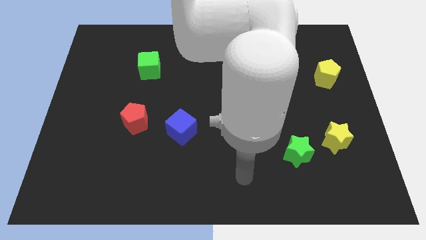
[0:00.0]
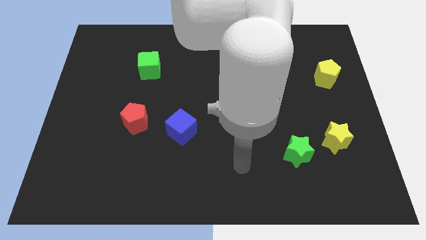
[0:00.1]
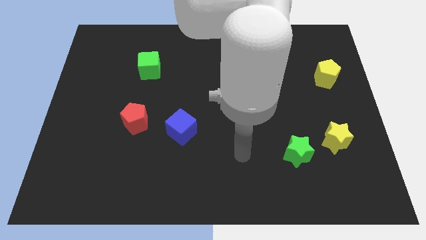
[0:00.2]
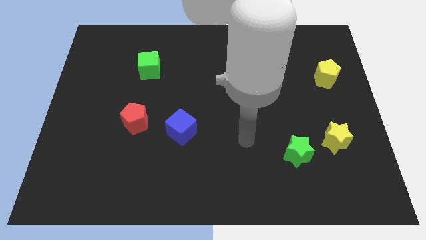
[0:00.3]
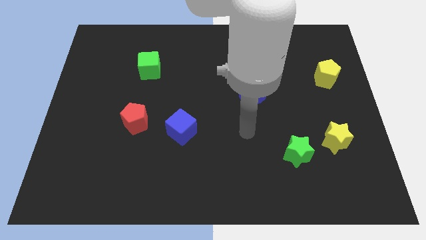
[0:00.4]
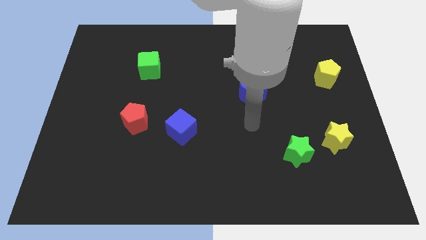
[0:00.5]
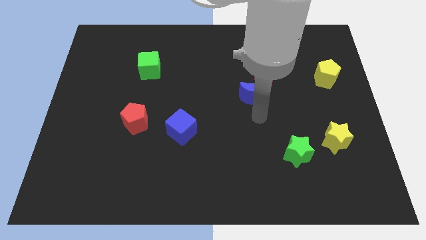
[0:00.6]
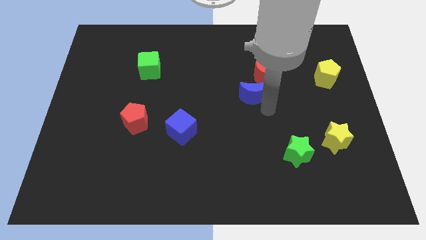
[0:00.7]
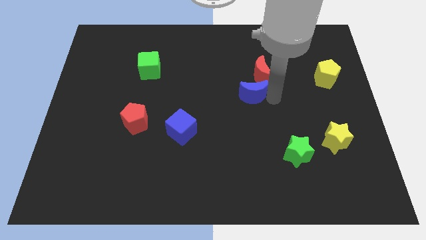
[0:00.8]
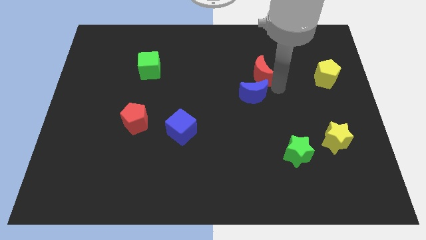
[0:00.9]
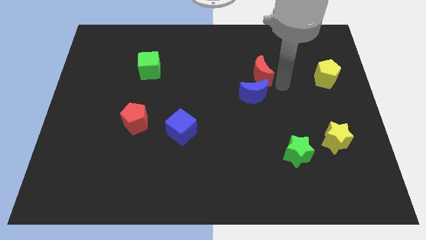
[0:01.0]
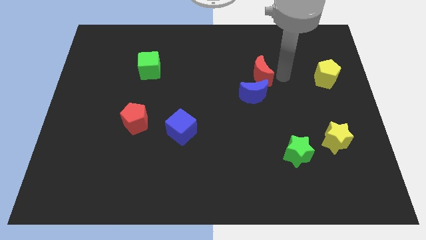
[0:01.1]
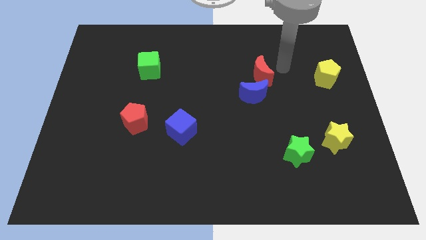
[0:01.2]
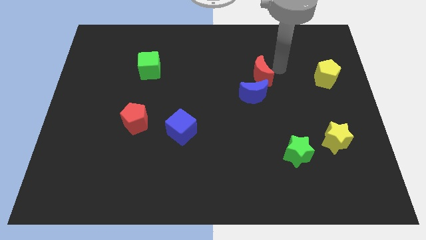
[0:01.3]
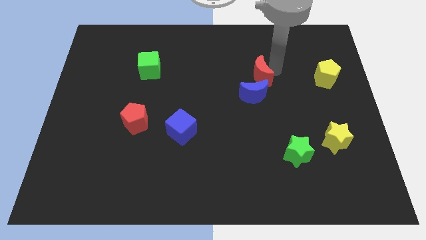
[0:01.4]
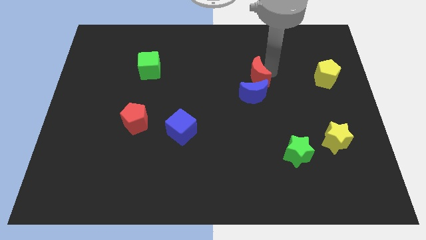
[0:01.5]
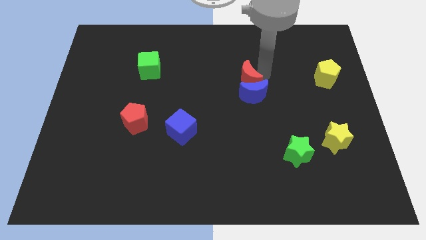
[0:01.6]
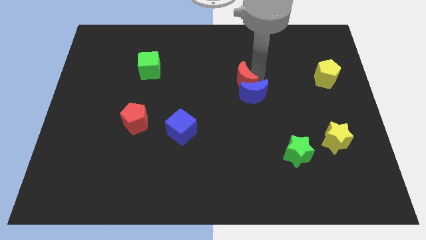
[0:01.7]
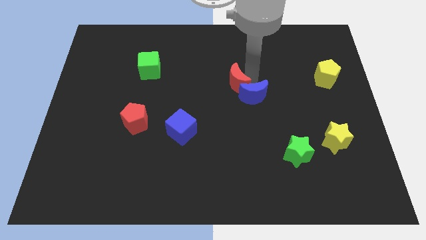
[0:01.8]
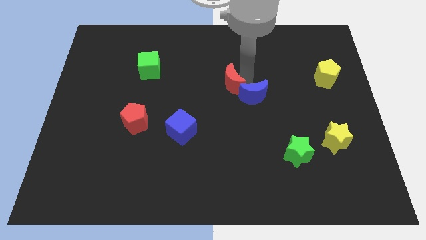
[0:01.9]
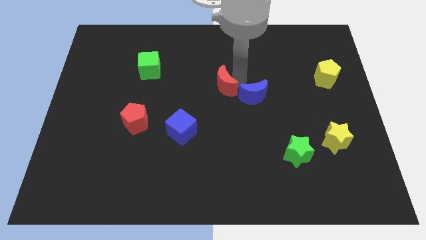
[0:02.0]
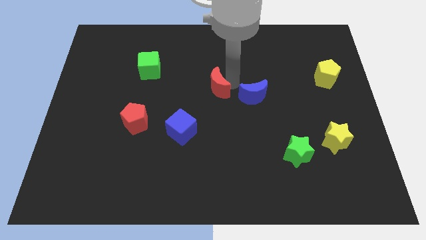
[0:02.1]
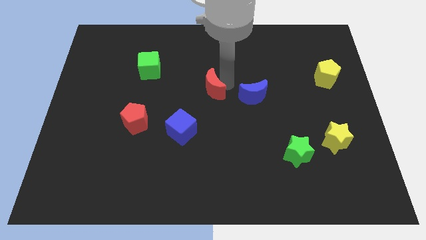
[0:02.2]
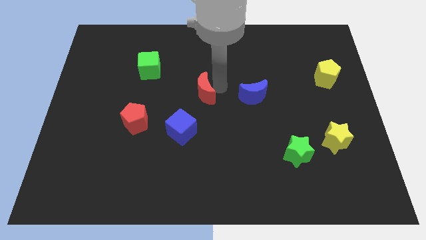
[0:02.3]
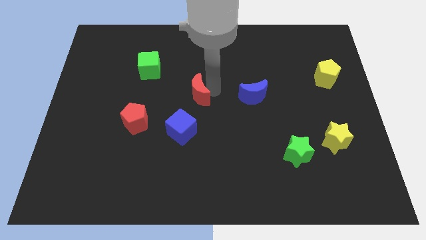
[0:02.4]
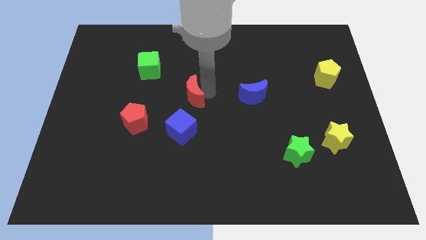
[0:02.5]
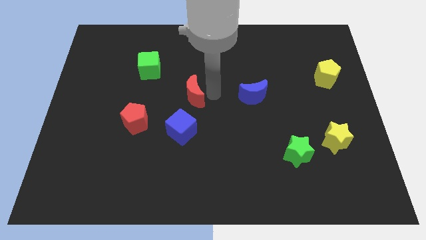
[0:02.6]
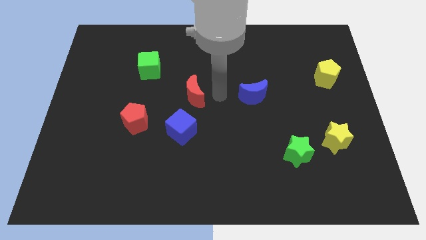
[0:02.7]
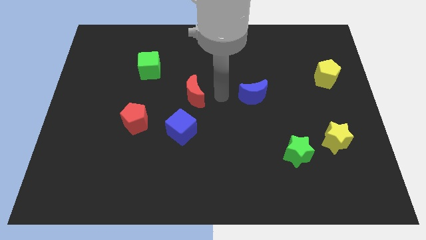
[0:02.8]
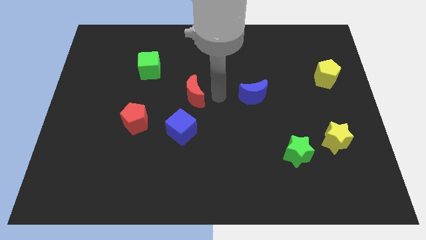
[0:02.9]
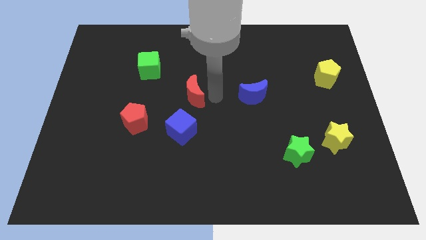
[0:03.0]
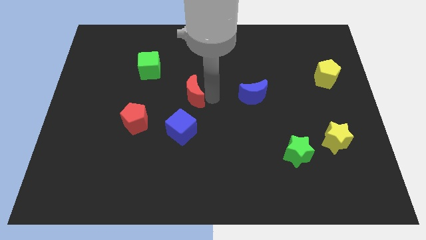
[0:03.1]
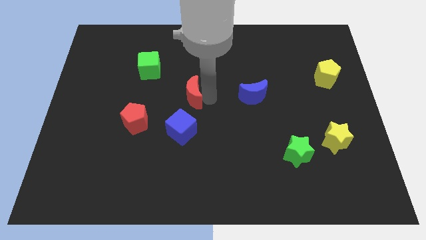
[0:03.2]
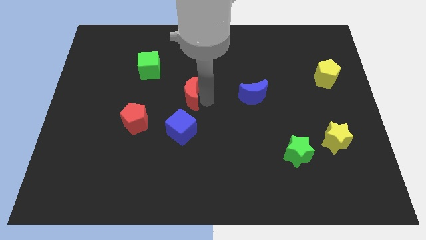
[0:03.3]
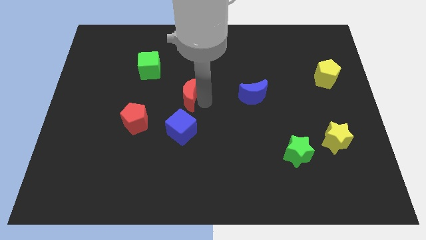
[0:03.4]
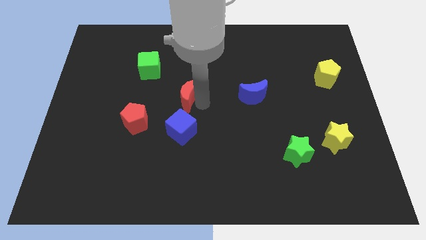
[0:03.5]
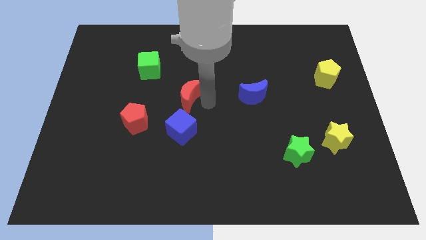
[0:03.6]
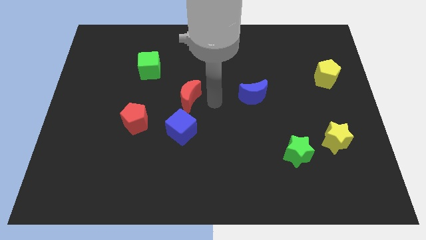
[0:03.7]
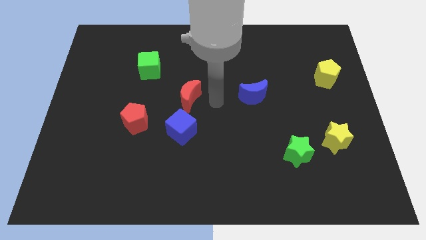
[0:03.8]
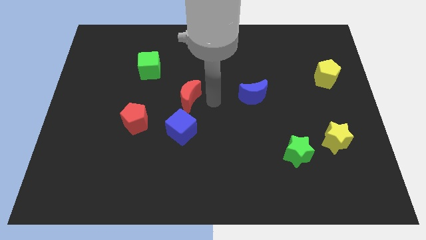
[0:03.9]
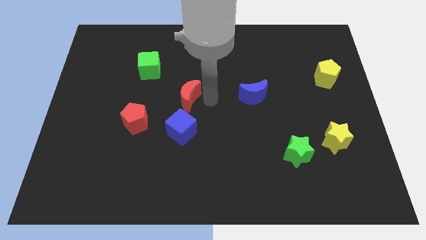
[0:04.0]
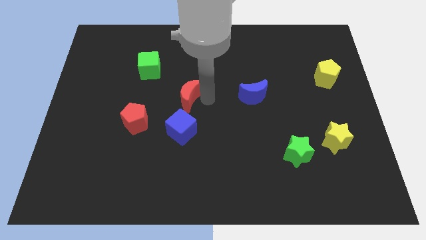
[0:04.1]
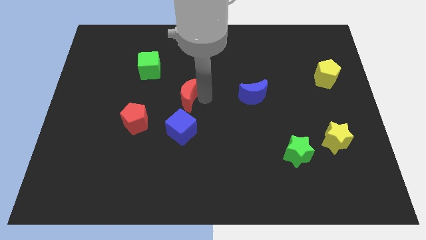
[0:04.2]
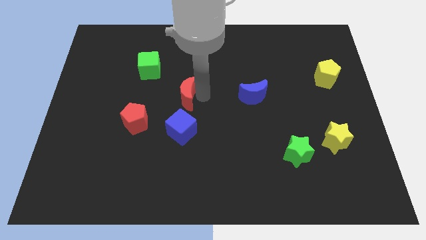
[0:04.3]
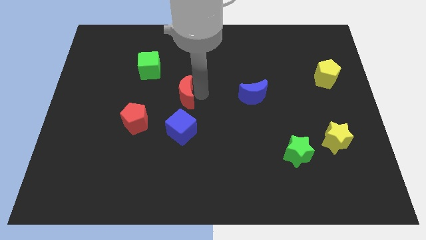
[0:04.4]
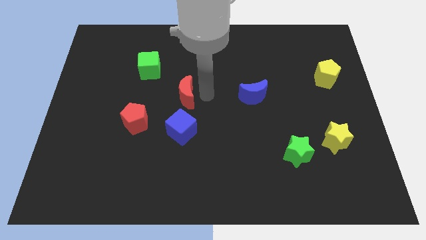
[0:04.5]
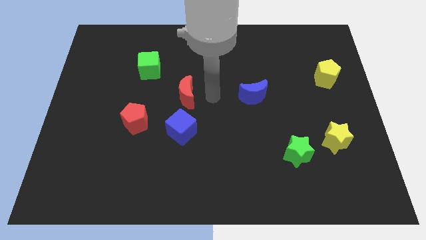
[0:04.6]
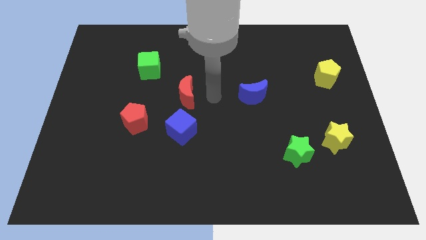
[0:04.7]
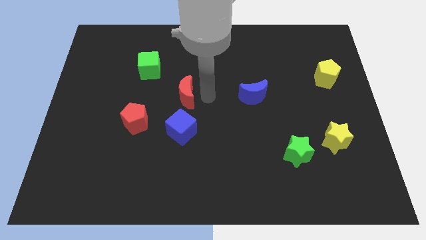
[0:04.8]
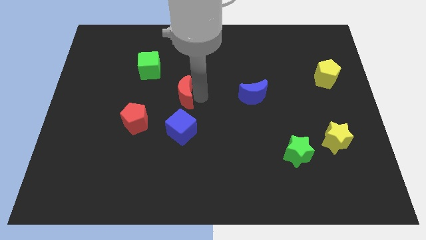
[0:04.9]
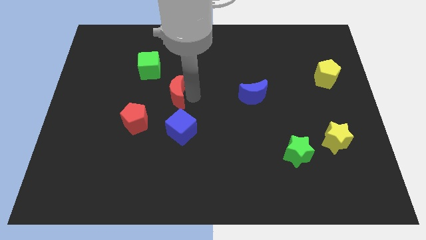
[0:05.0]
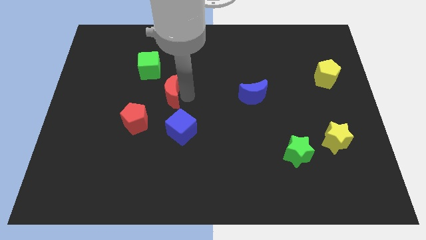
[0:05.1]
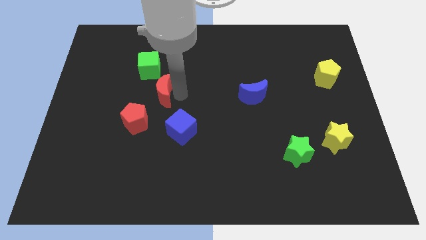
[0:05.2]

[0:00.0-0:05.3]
push the red moon to the bottom side of the green cube
